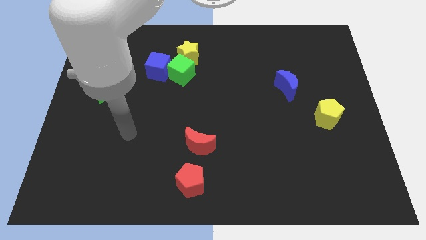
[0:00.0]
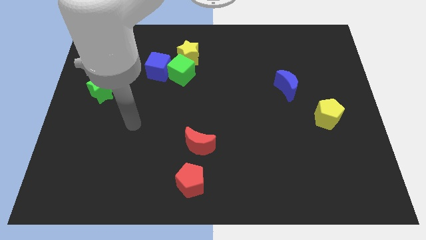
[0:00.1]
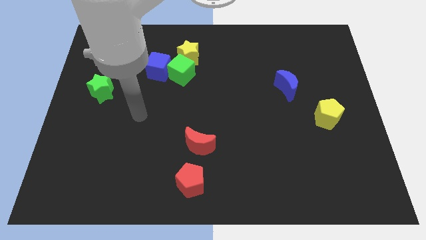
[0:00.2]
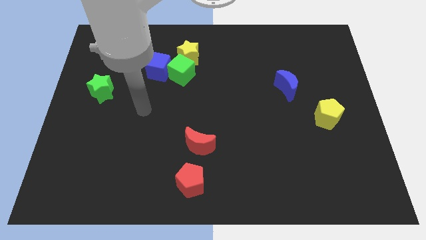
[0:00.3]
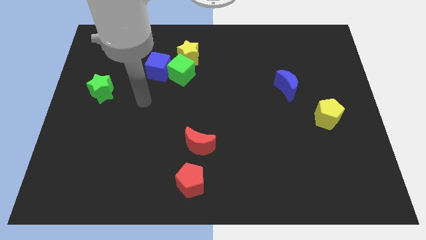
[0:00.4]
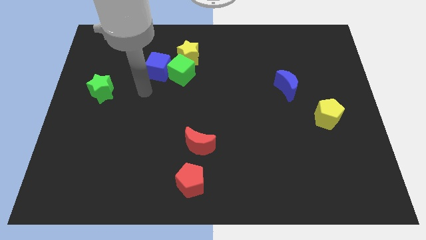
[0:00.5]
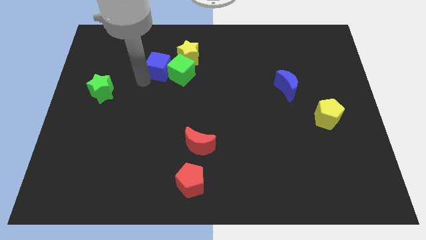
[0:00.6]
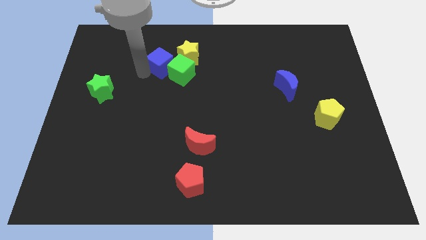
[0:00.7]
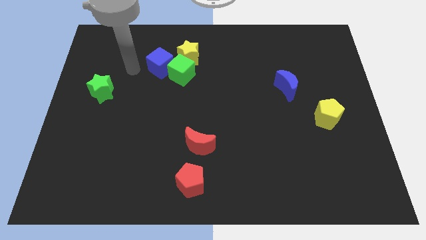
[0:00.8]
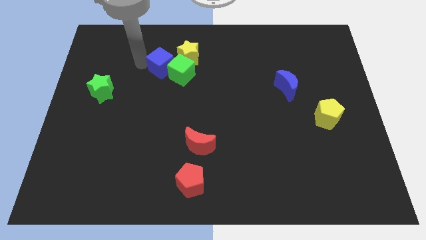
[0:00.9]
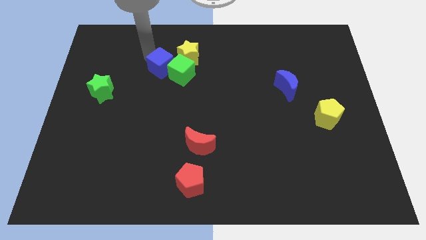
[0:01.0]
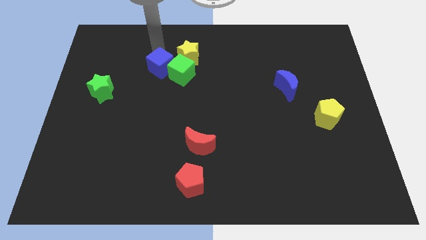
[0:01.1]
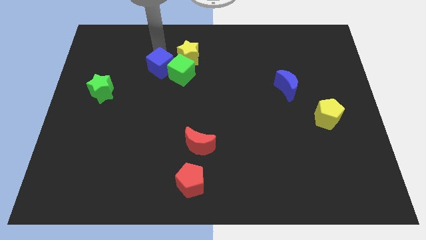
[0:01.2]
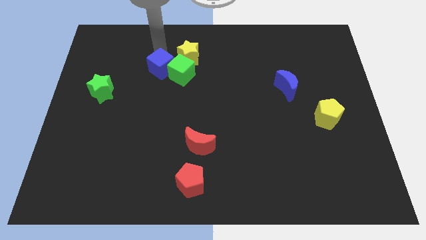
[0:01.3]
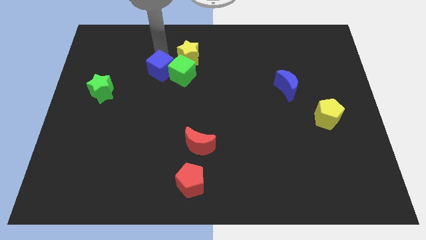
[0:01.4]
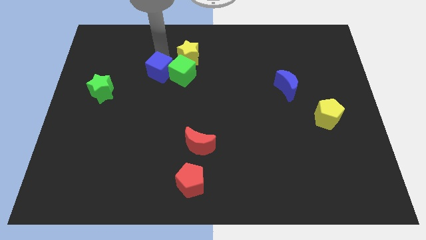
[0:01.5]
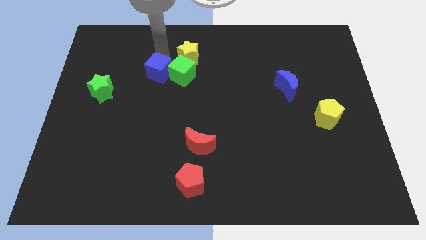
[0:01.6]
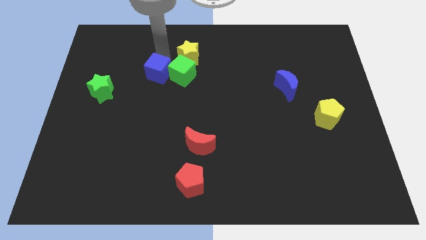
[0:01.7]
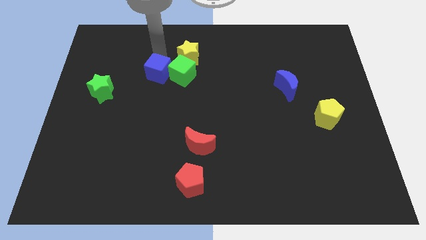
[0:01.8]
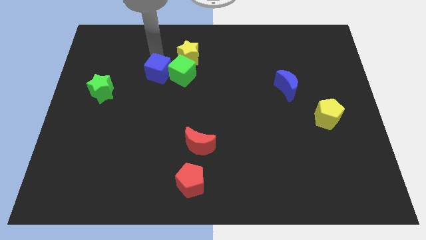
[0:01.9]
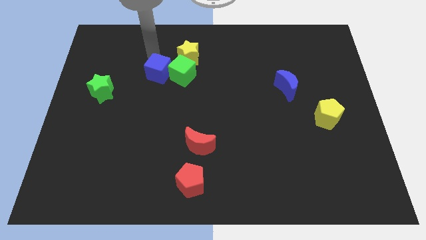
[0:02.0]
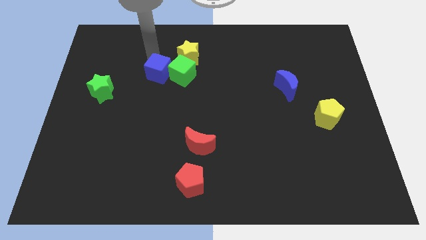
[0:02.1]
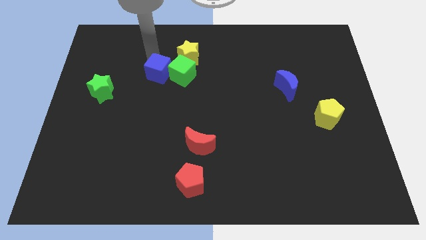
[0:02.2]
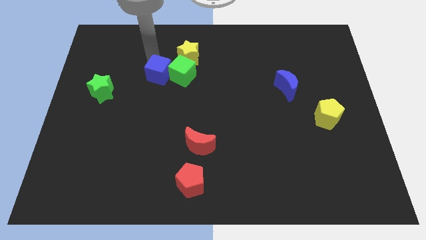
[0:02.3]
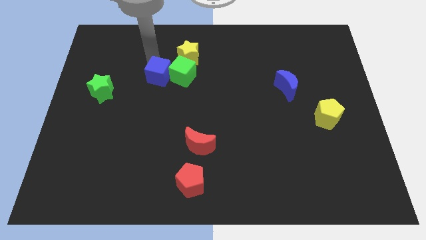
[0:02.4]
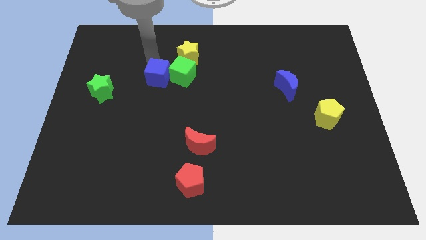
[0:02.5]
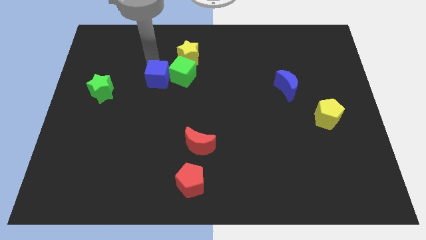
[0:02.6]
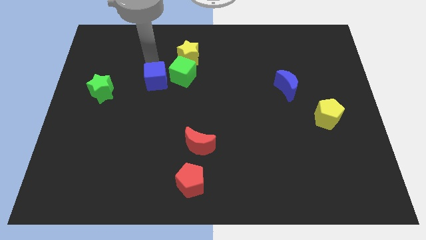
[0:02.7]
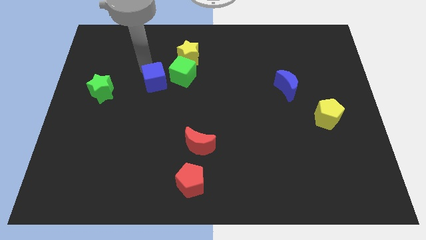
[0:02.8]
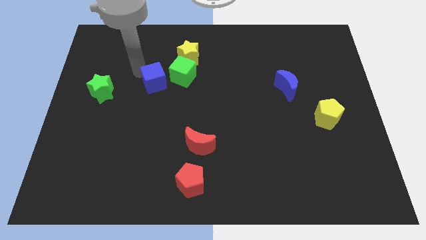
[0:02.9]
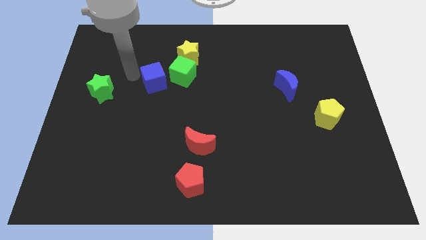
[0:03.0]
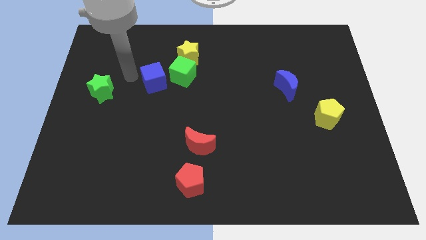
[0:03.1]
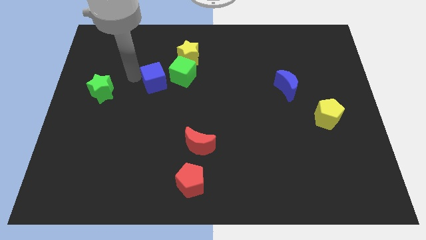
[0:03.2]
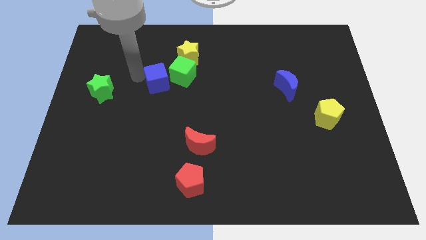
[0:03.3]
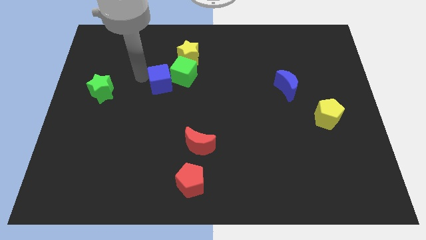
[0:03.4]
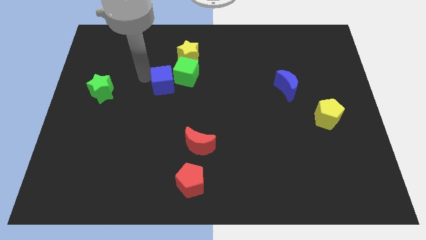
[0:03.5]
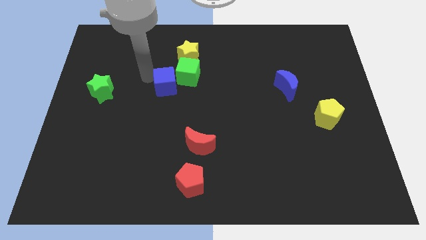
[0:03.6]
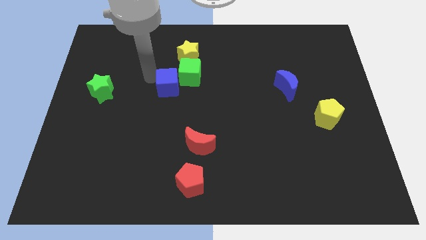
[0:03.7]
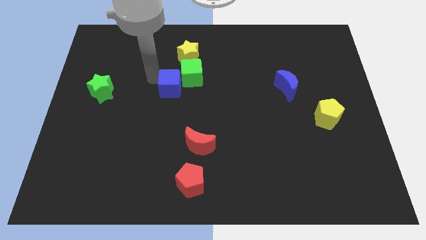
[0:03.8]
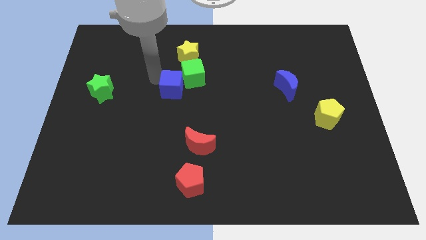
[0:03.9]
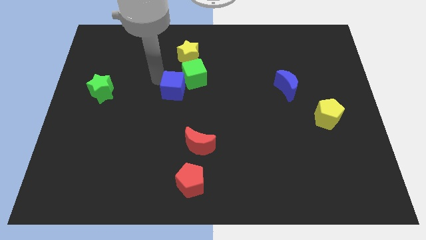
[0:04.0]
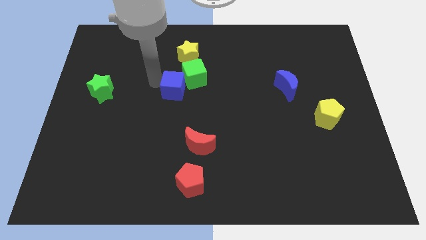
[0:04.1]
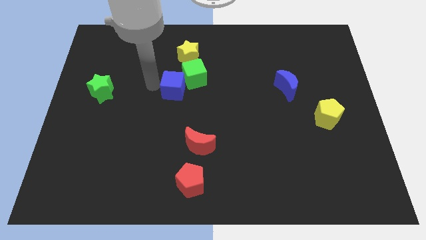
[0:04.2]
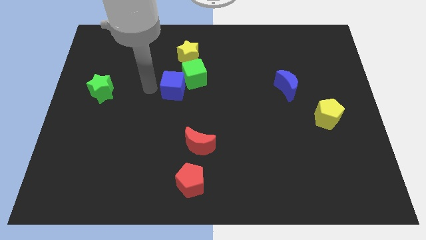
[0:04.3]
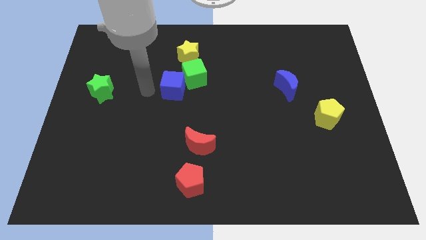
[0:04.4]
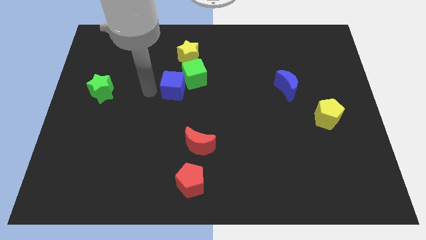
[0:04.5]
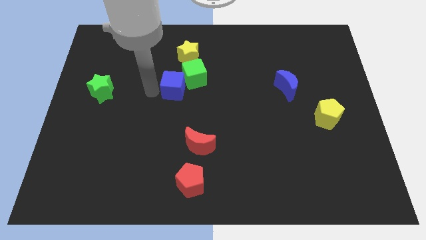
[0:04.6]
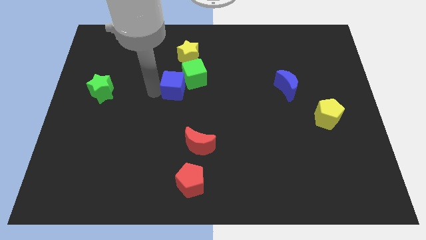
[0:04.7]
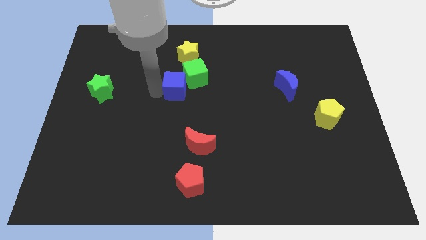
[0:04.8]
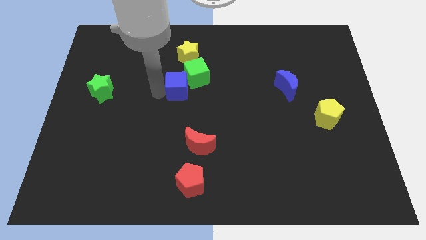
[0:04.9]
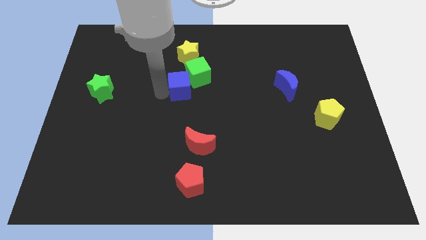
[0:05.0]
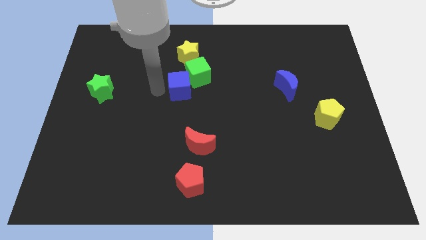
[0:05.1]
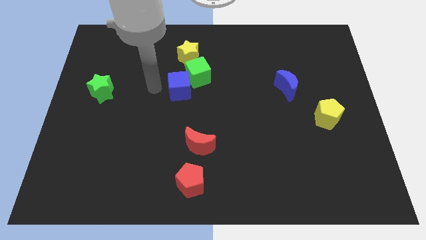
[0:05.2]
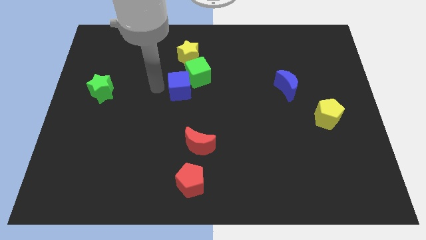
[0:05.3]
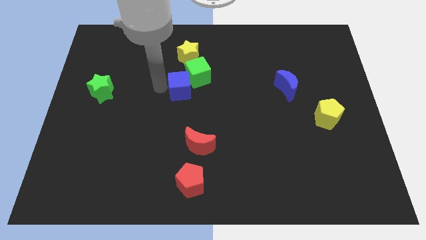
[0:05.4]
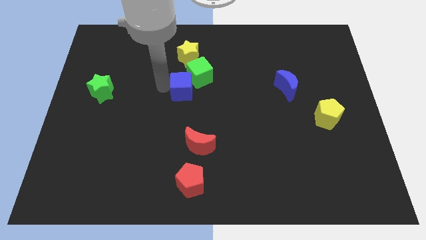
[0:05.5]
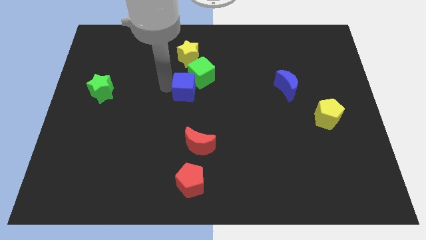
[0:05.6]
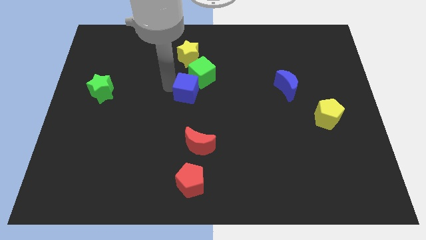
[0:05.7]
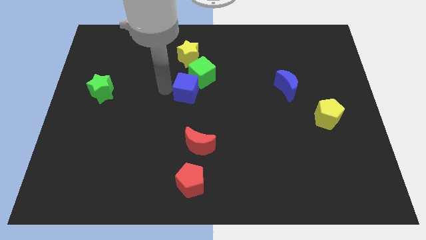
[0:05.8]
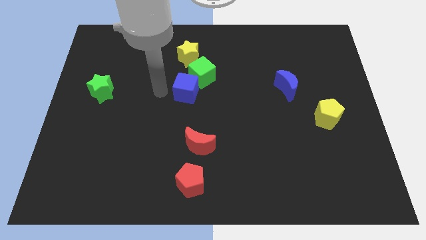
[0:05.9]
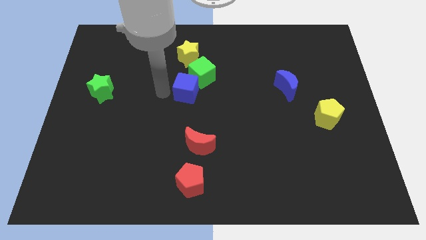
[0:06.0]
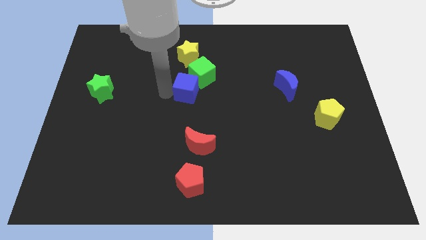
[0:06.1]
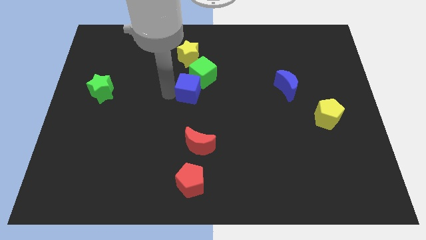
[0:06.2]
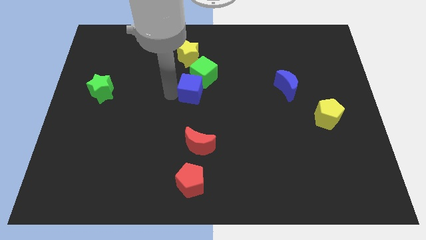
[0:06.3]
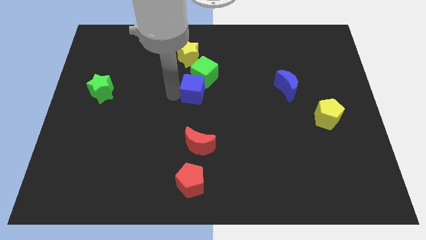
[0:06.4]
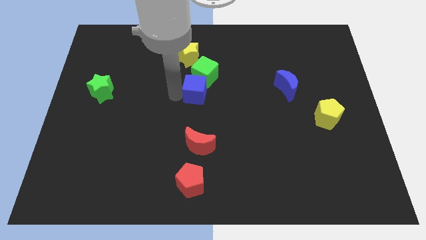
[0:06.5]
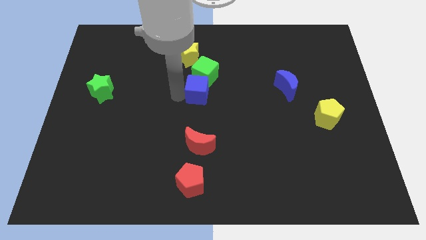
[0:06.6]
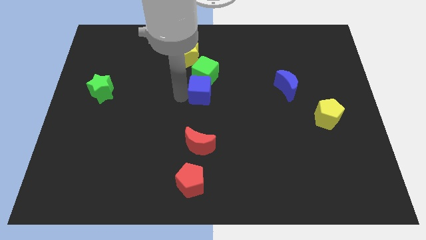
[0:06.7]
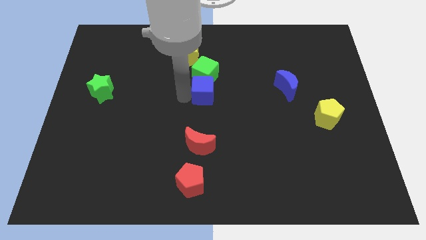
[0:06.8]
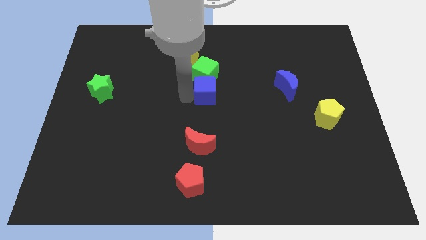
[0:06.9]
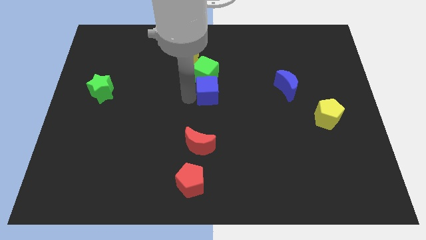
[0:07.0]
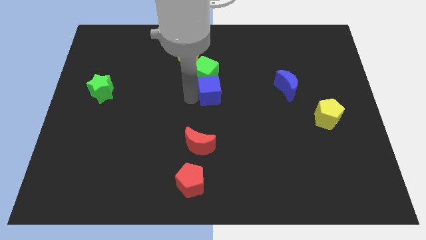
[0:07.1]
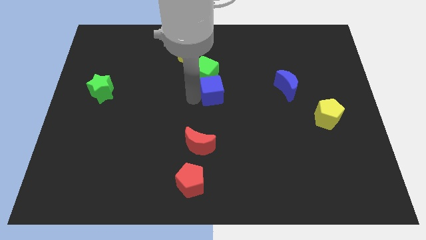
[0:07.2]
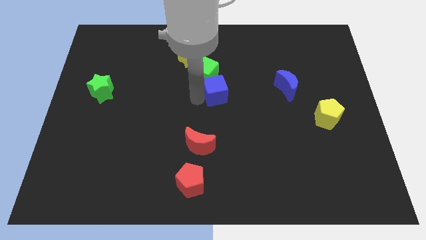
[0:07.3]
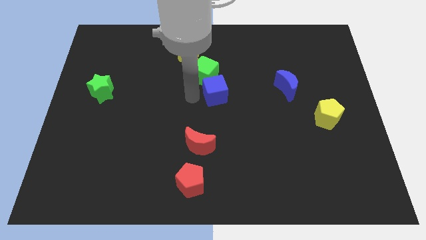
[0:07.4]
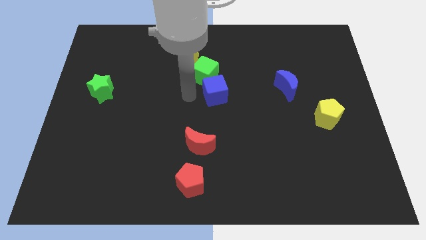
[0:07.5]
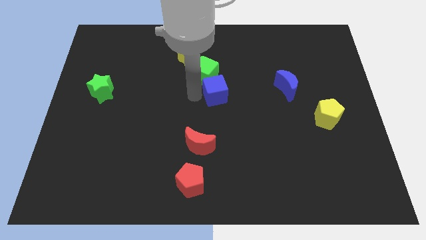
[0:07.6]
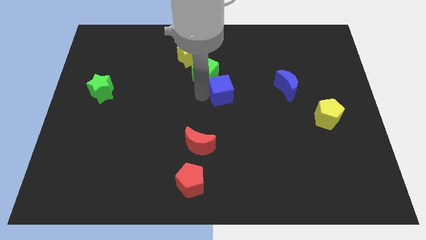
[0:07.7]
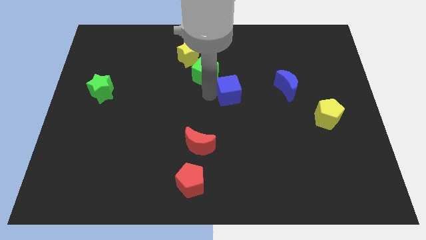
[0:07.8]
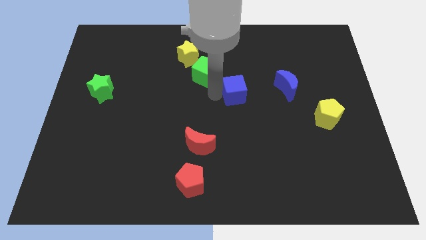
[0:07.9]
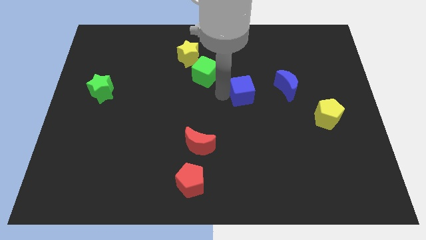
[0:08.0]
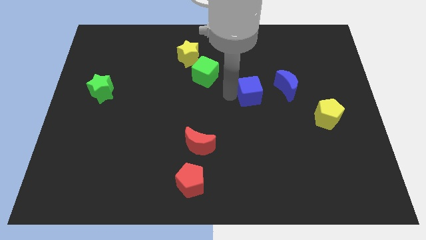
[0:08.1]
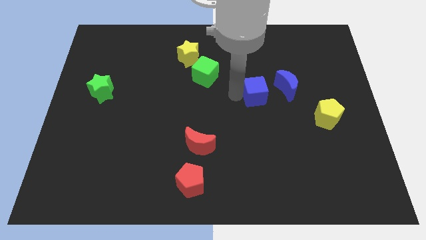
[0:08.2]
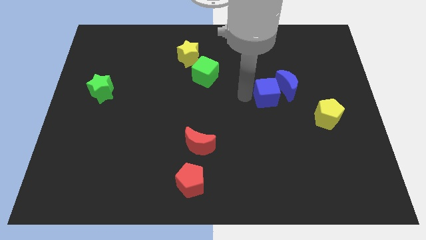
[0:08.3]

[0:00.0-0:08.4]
put the blue cube towards the blue moon
